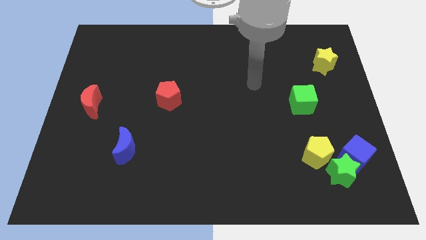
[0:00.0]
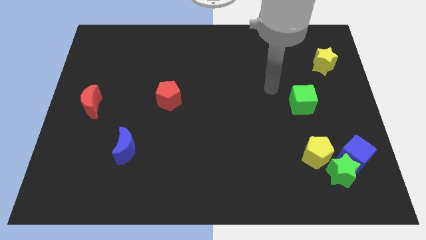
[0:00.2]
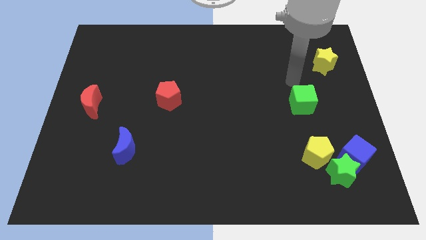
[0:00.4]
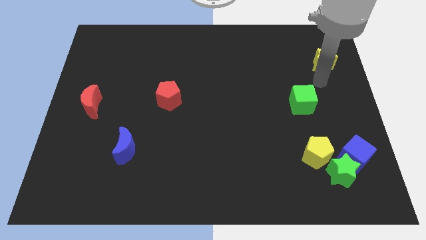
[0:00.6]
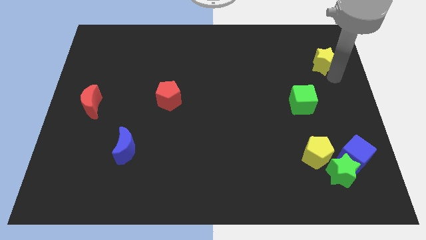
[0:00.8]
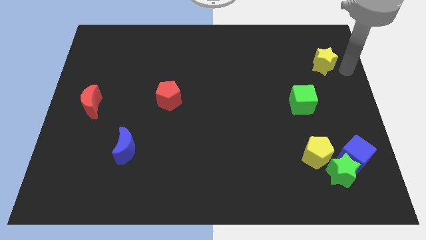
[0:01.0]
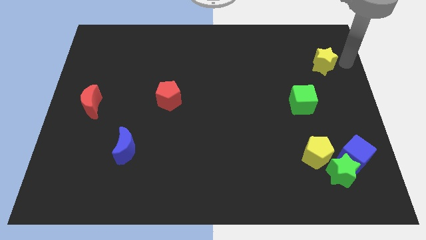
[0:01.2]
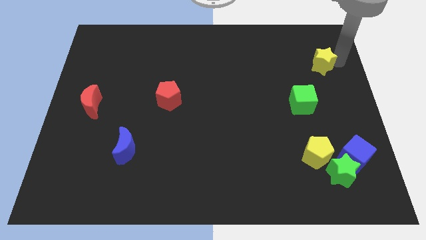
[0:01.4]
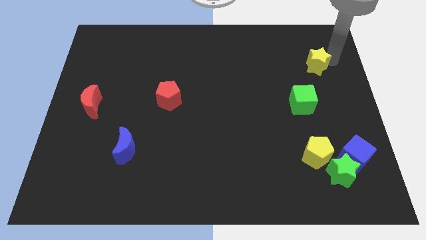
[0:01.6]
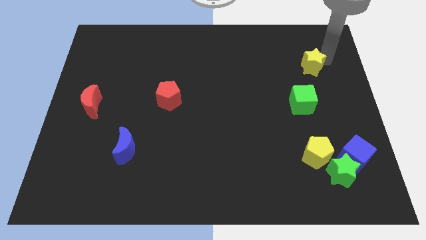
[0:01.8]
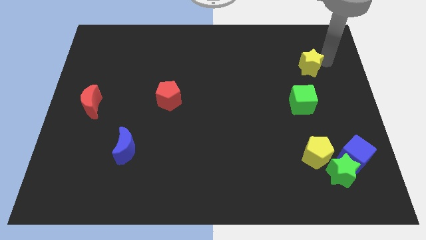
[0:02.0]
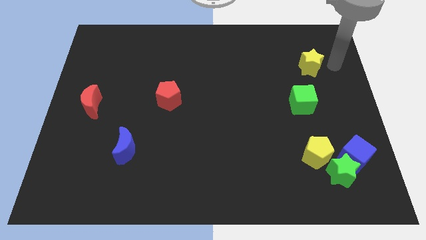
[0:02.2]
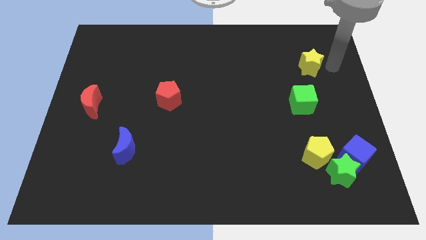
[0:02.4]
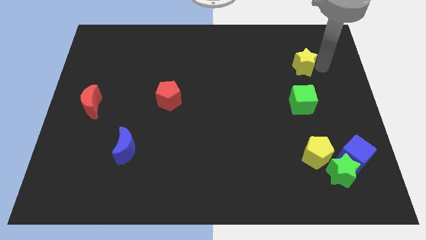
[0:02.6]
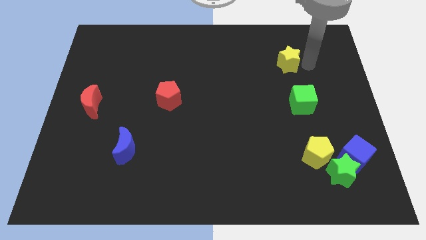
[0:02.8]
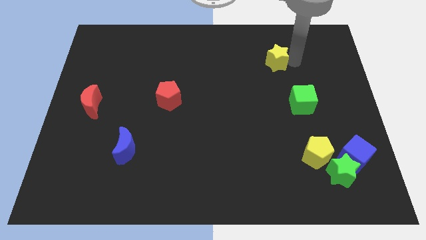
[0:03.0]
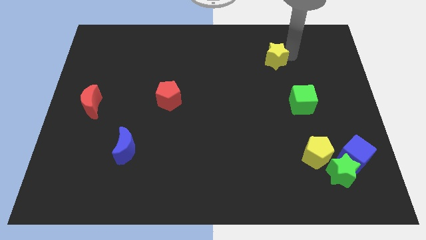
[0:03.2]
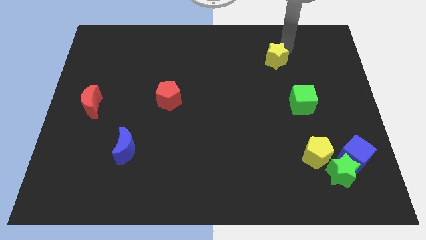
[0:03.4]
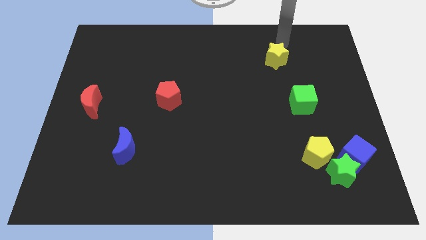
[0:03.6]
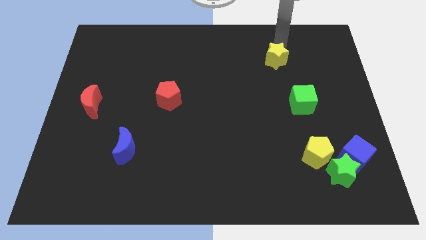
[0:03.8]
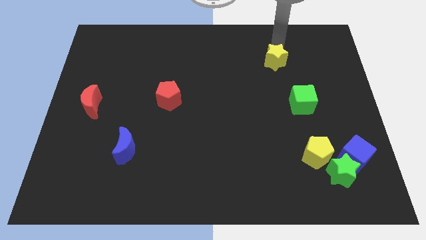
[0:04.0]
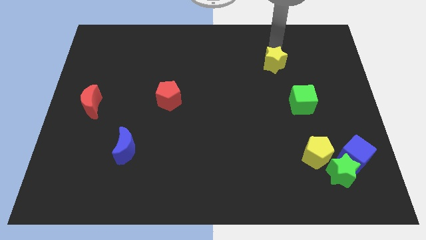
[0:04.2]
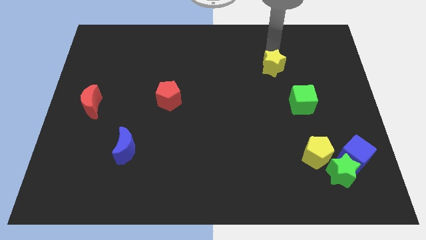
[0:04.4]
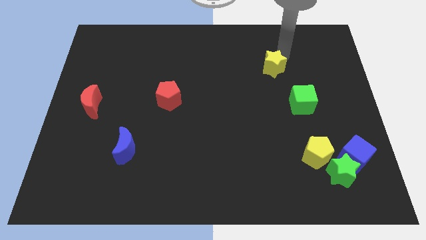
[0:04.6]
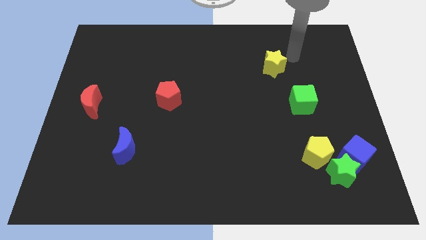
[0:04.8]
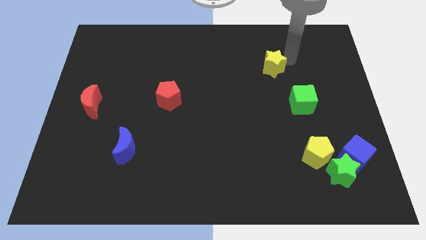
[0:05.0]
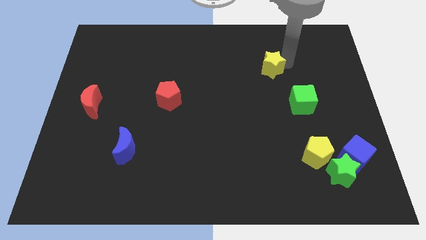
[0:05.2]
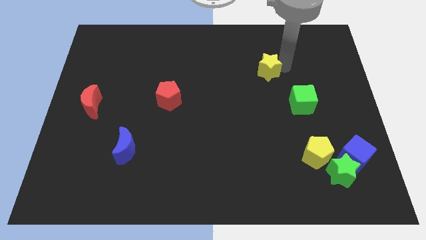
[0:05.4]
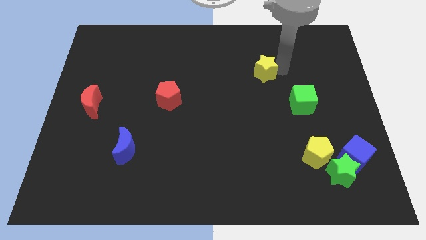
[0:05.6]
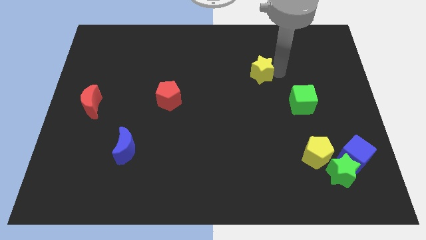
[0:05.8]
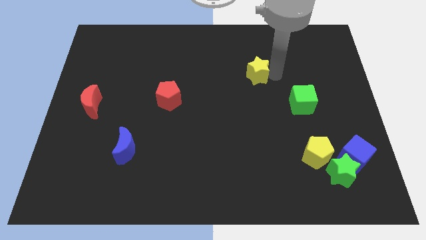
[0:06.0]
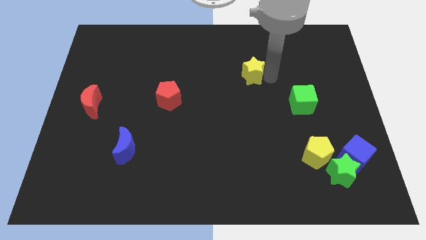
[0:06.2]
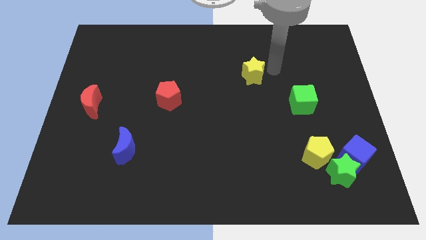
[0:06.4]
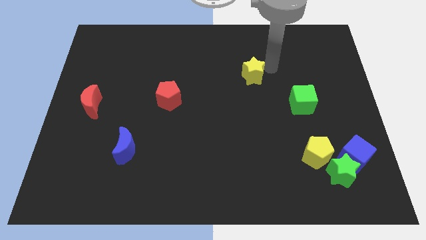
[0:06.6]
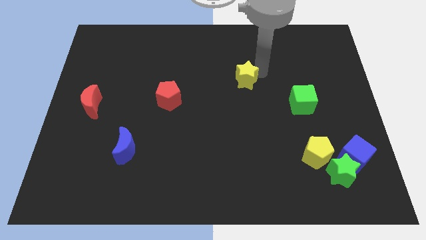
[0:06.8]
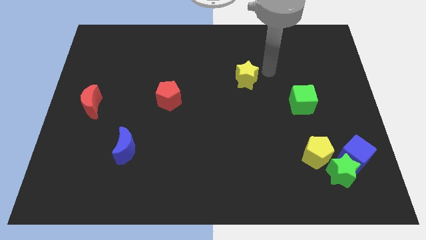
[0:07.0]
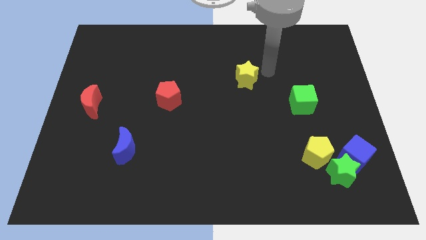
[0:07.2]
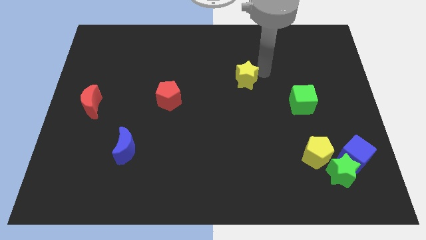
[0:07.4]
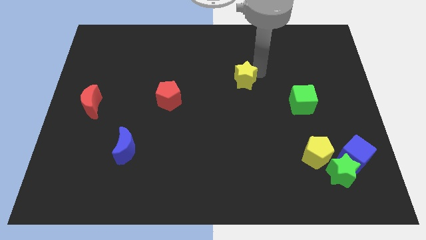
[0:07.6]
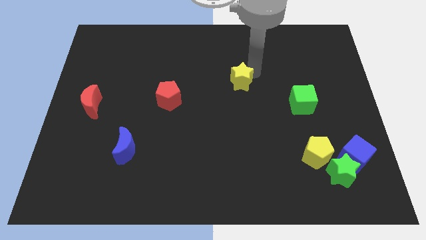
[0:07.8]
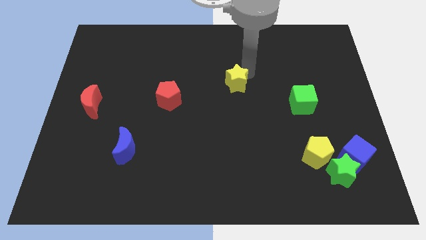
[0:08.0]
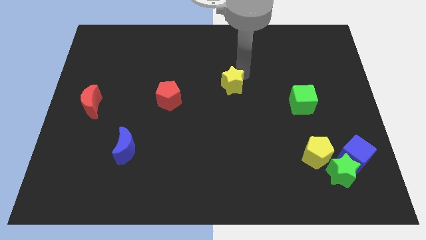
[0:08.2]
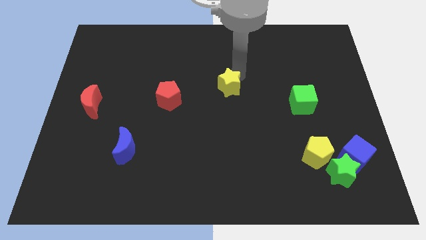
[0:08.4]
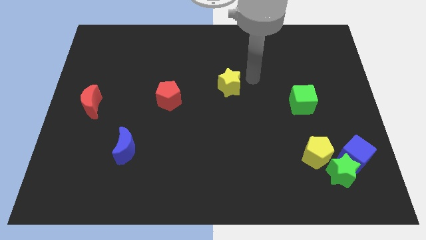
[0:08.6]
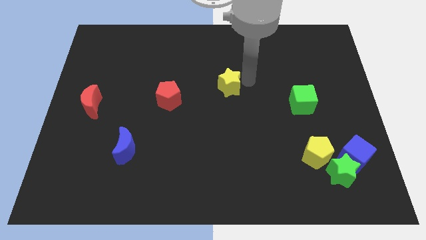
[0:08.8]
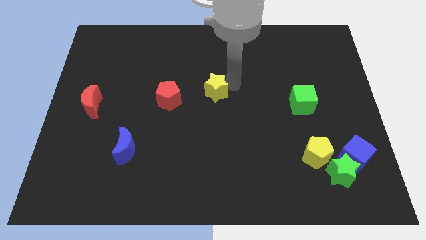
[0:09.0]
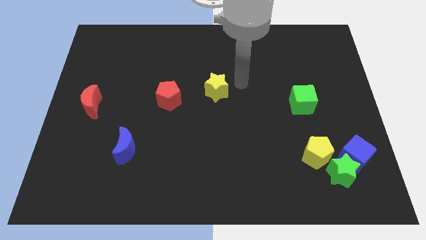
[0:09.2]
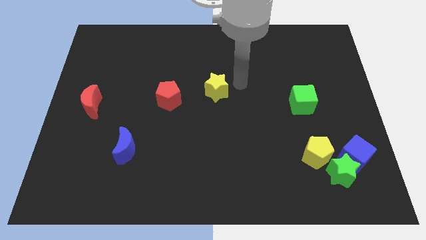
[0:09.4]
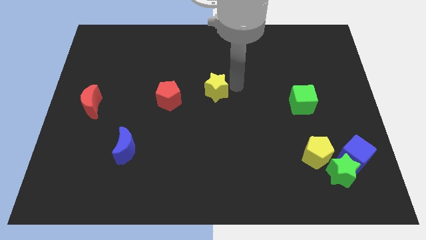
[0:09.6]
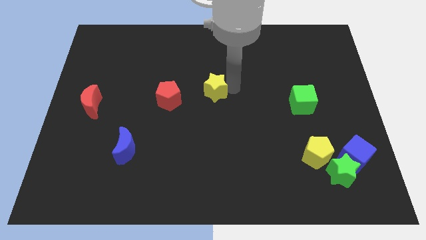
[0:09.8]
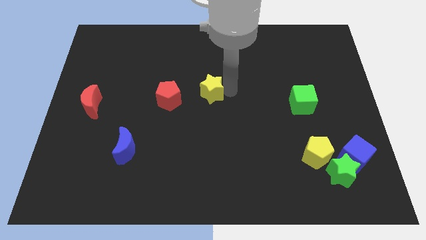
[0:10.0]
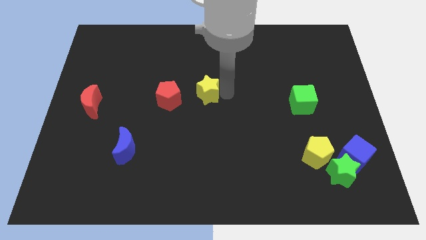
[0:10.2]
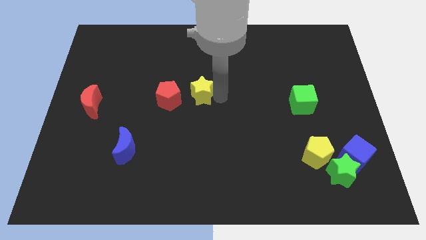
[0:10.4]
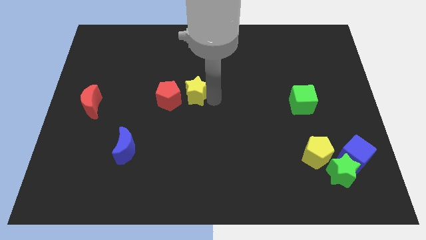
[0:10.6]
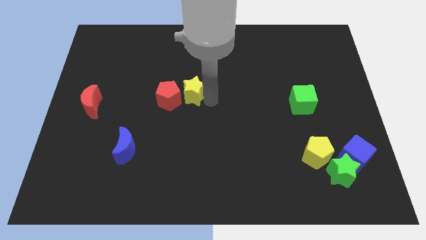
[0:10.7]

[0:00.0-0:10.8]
push the yellow star next to the red pentagon

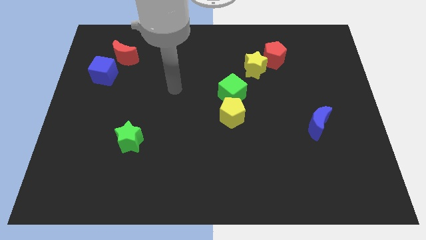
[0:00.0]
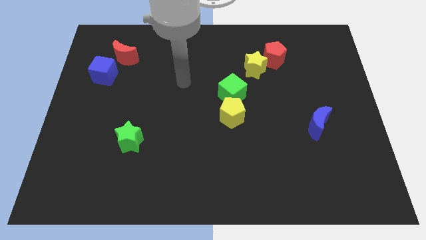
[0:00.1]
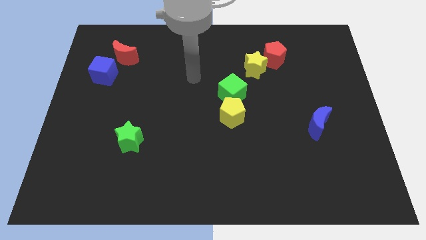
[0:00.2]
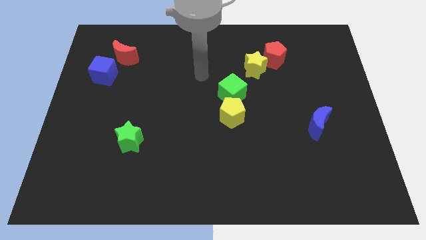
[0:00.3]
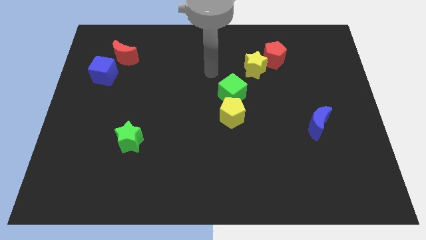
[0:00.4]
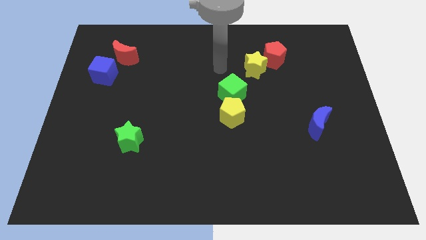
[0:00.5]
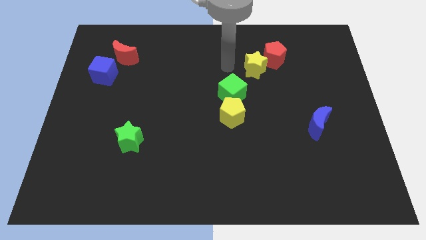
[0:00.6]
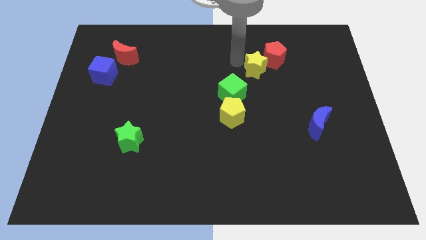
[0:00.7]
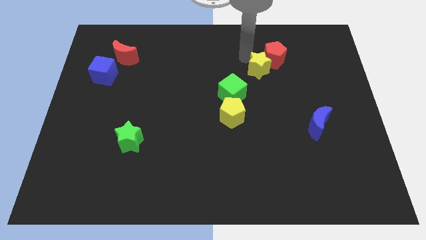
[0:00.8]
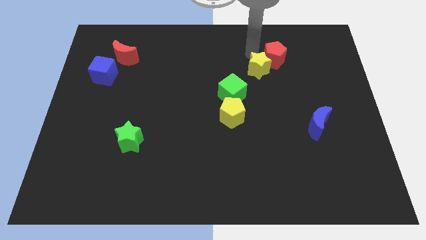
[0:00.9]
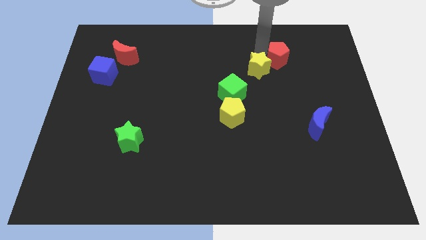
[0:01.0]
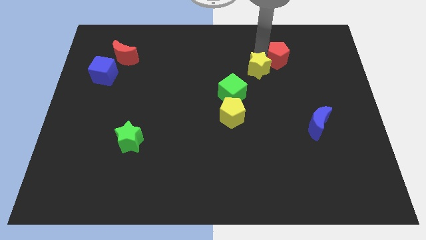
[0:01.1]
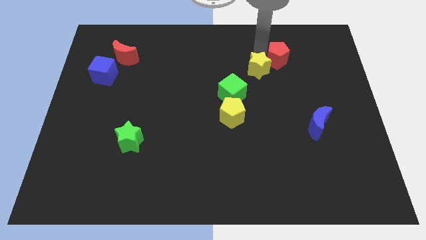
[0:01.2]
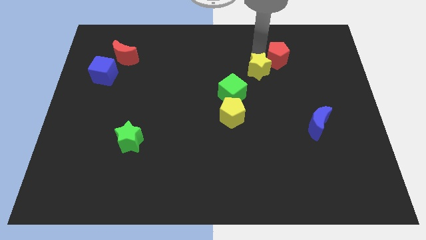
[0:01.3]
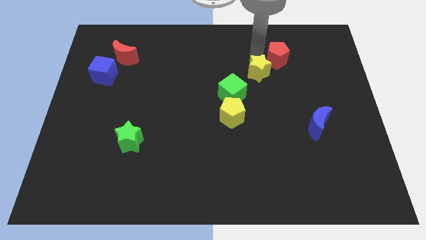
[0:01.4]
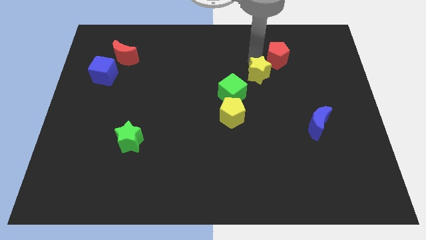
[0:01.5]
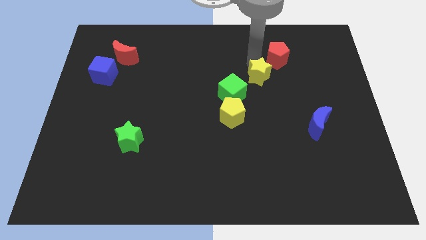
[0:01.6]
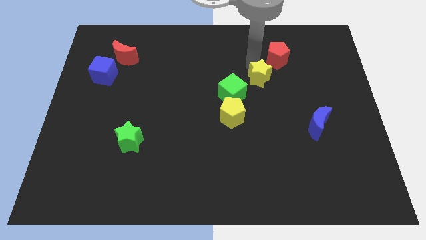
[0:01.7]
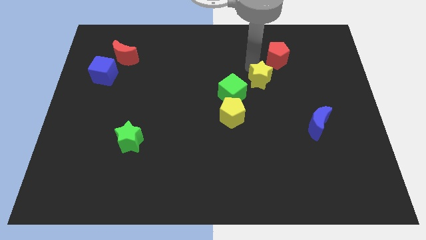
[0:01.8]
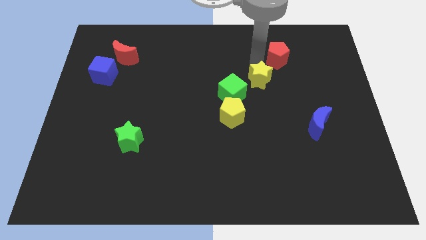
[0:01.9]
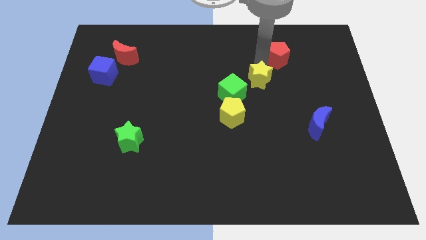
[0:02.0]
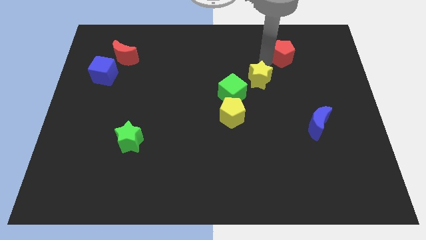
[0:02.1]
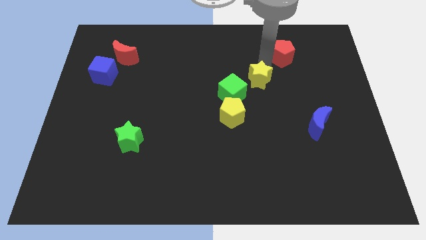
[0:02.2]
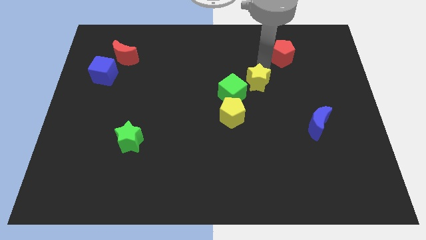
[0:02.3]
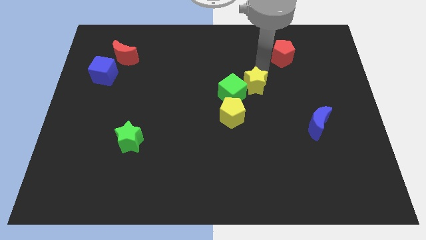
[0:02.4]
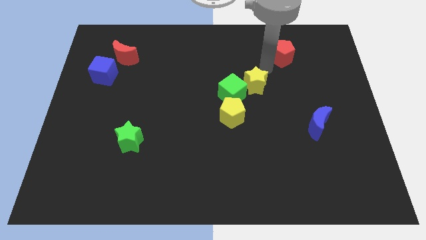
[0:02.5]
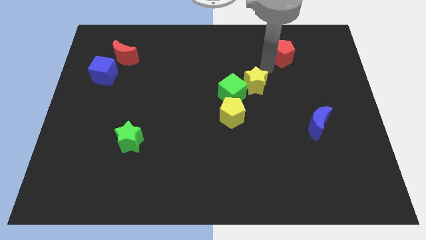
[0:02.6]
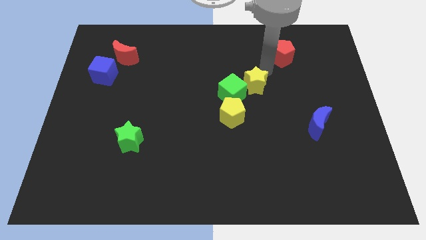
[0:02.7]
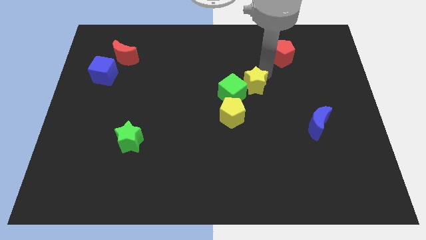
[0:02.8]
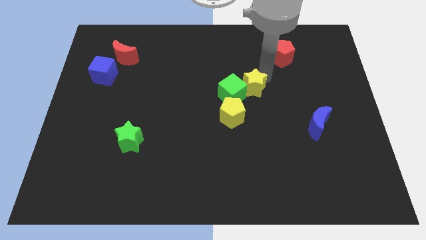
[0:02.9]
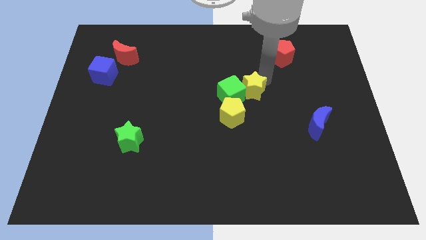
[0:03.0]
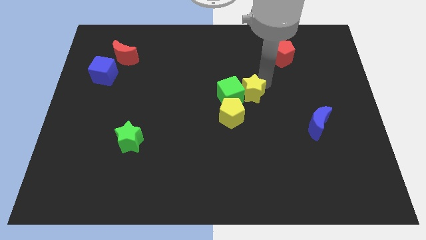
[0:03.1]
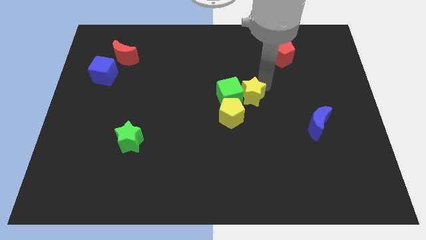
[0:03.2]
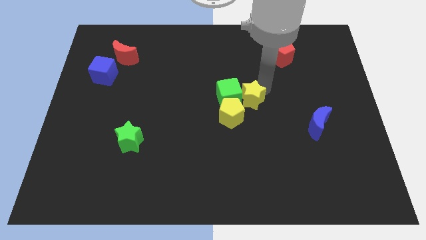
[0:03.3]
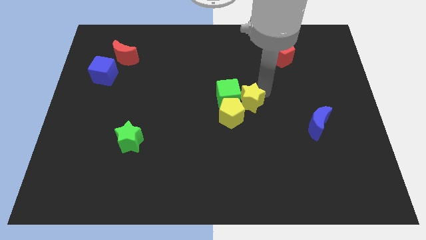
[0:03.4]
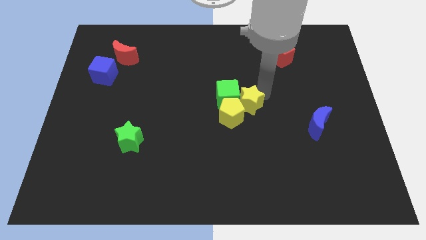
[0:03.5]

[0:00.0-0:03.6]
push the yellow star next to the yellow pentagon
